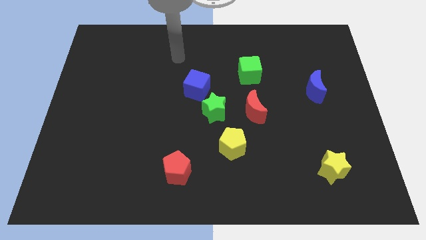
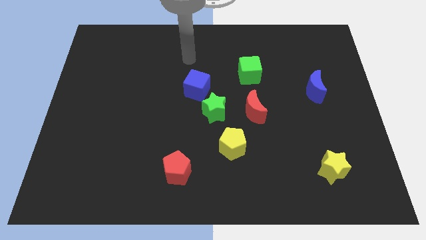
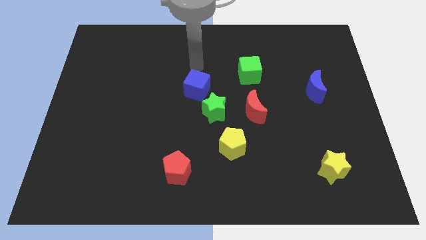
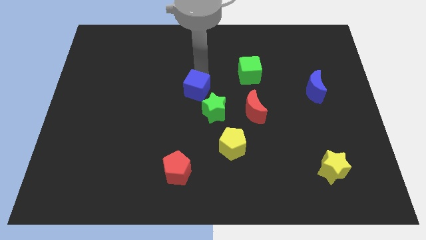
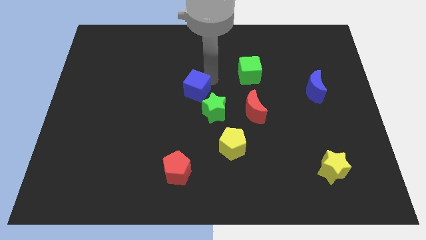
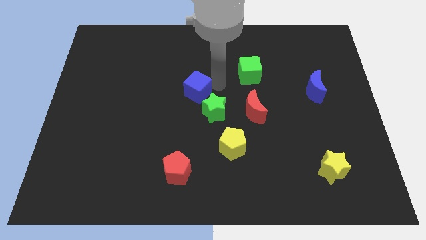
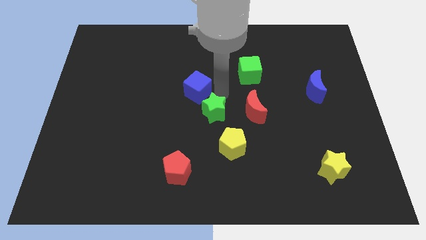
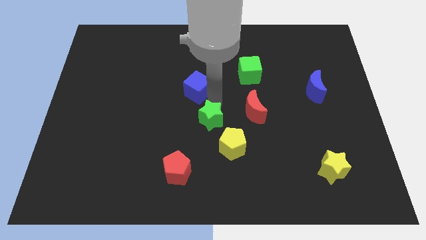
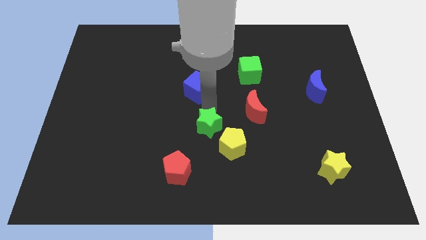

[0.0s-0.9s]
move the blue cube away from the green star

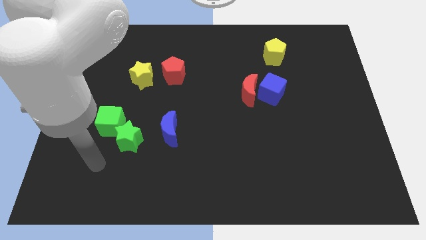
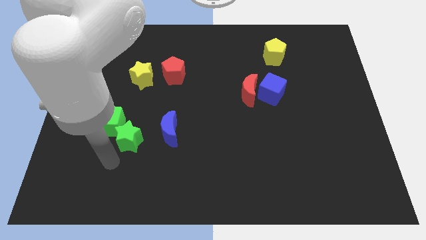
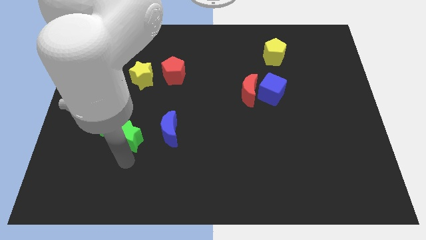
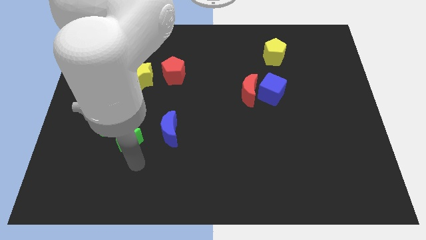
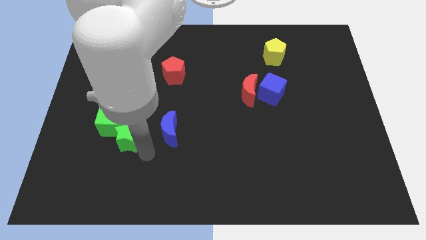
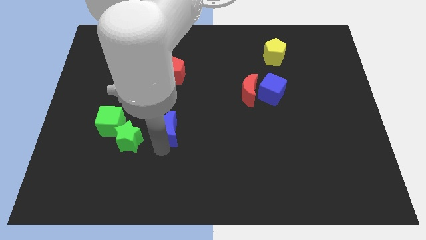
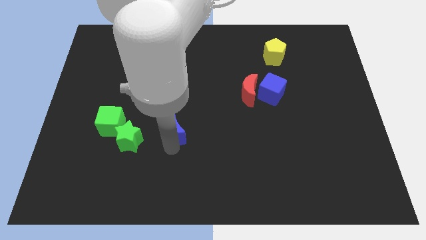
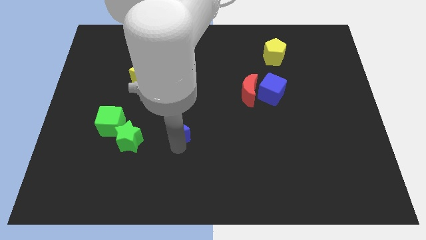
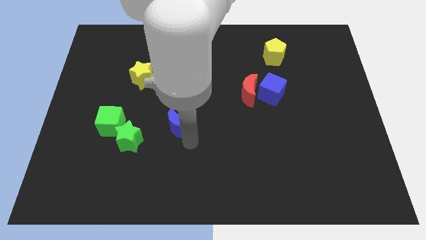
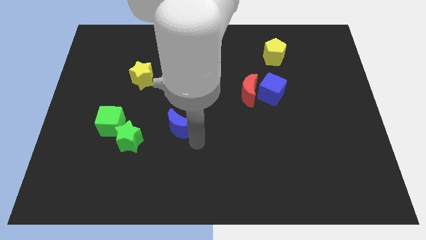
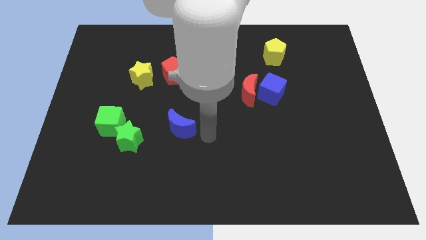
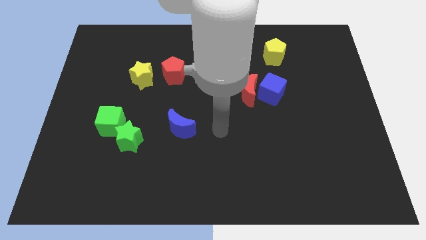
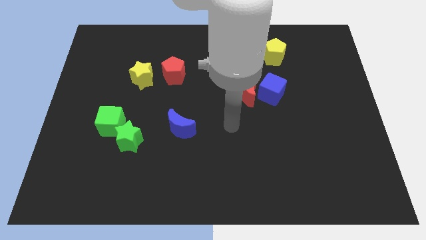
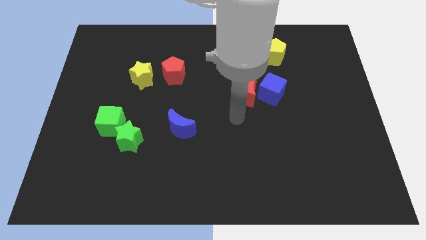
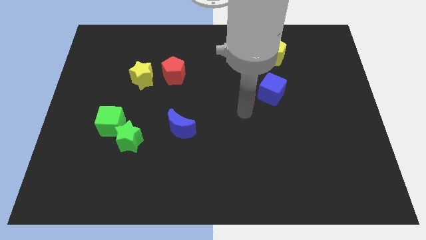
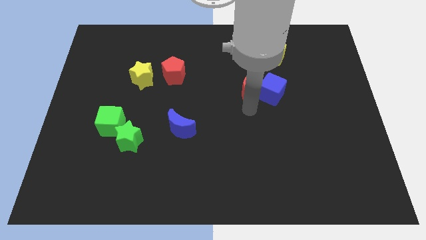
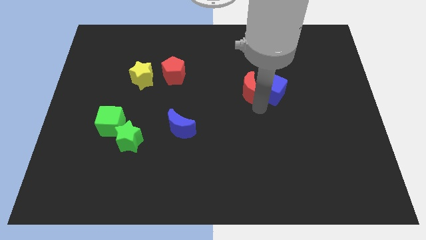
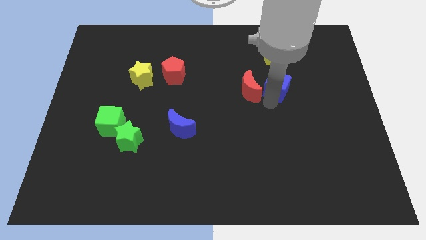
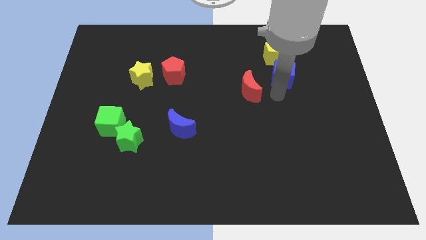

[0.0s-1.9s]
move the red moon away from the blue cube

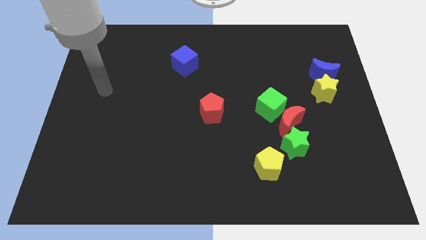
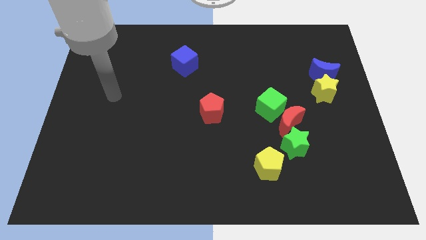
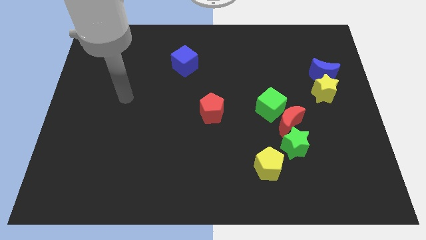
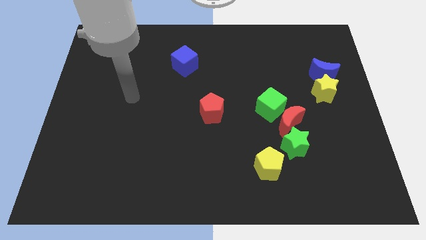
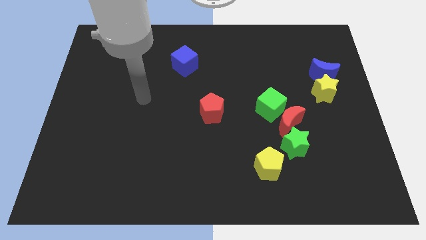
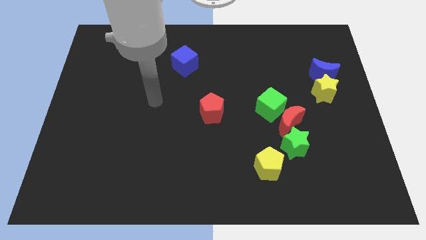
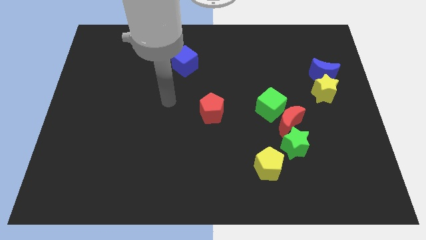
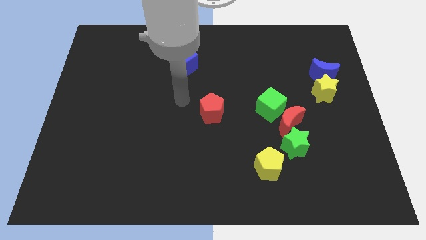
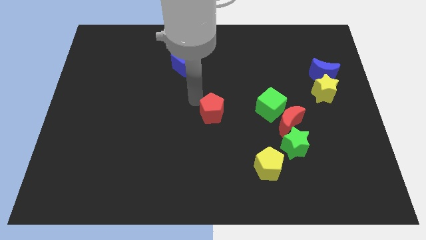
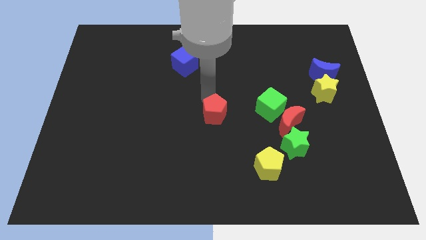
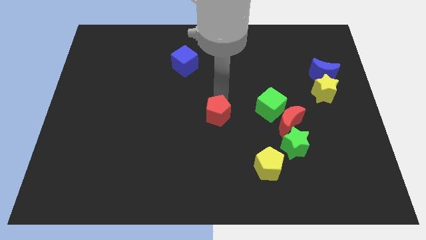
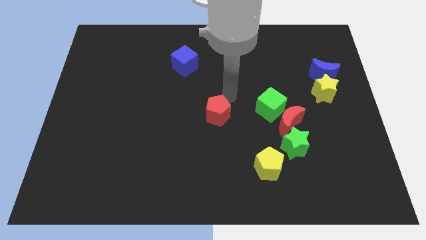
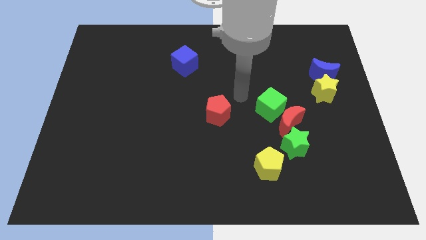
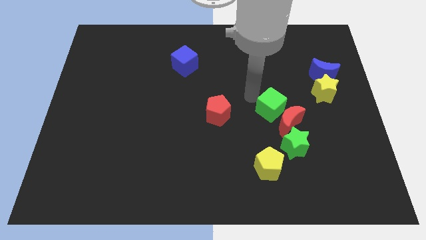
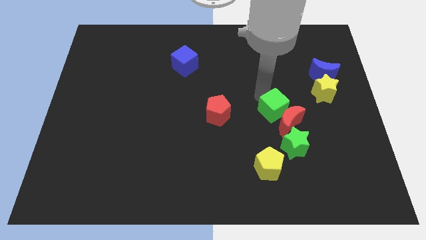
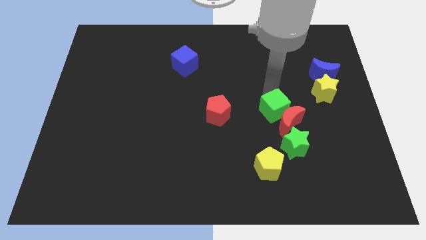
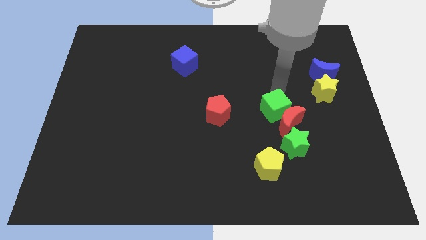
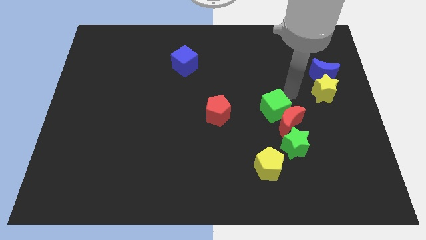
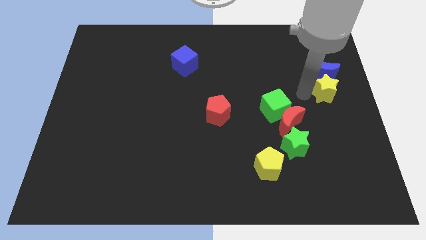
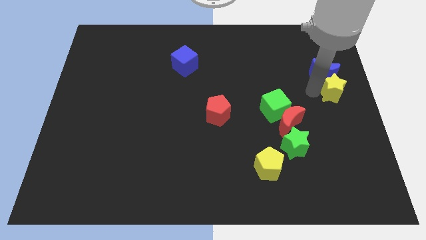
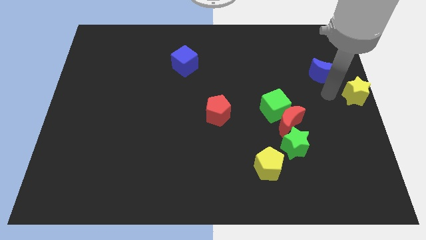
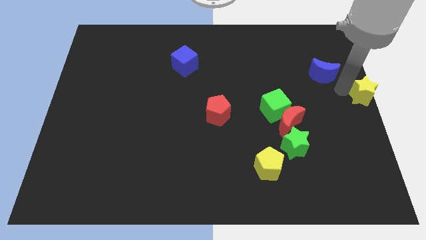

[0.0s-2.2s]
separate the blue moon from the yellow star

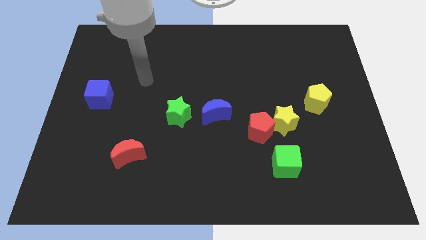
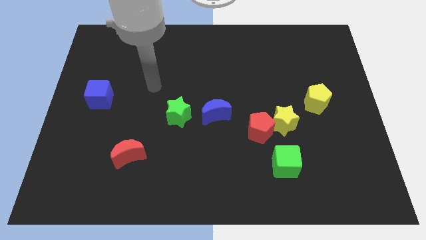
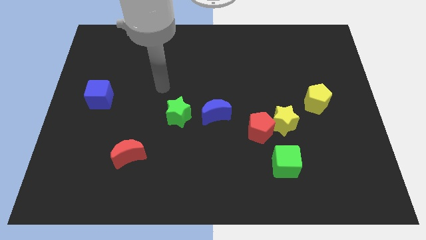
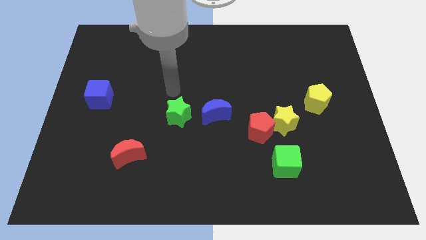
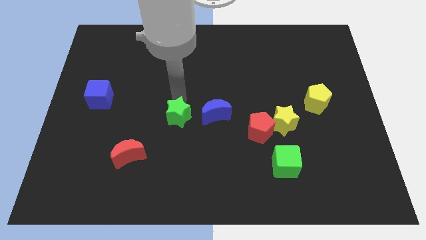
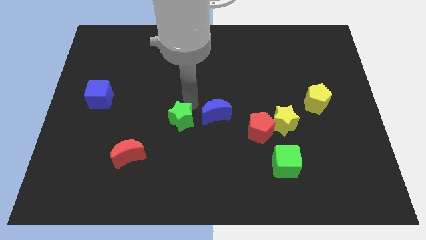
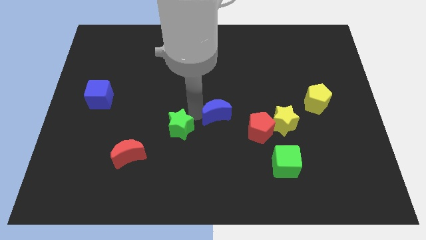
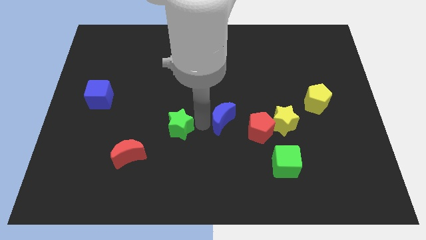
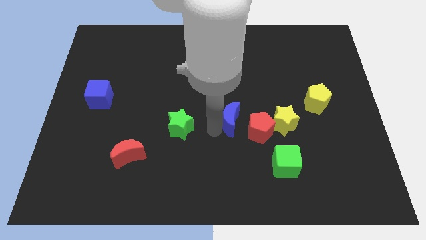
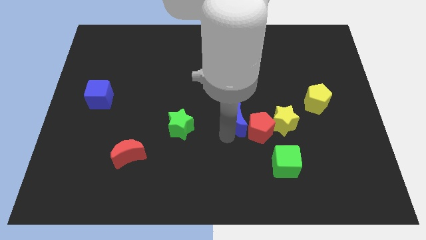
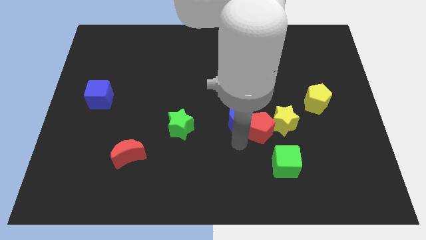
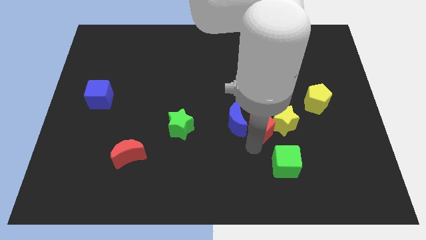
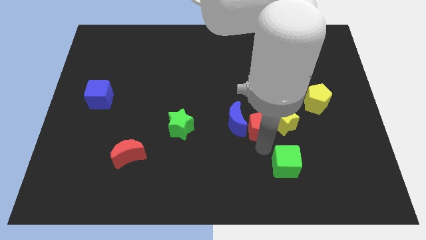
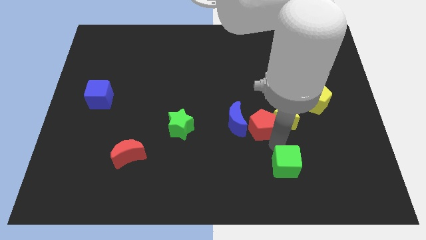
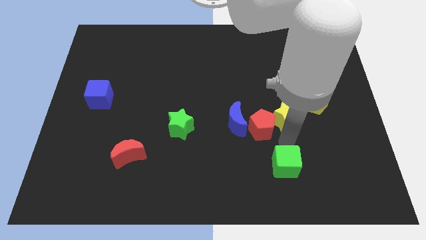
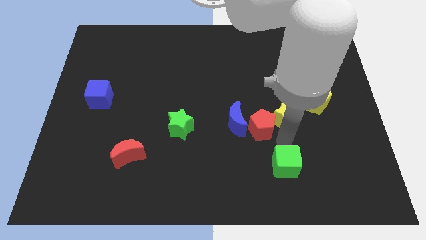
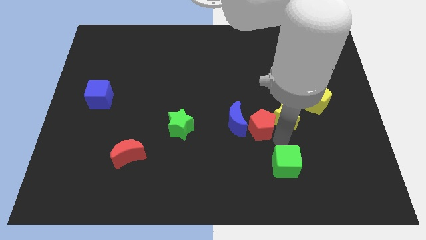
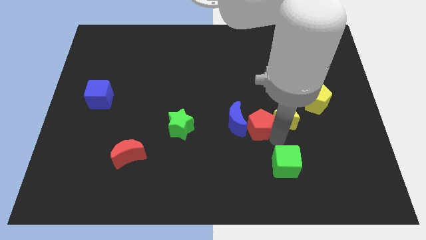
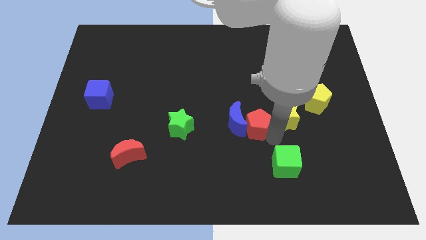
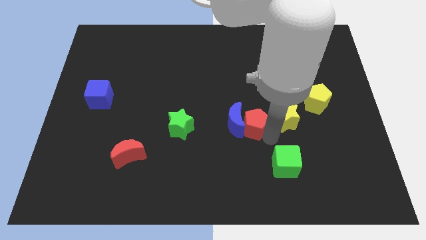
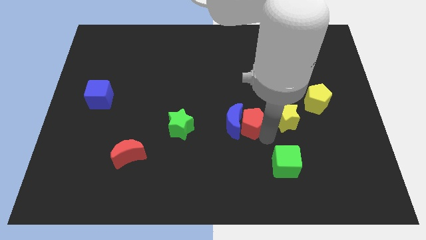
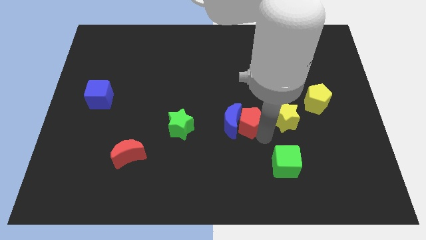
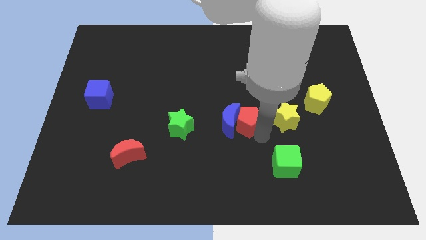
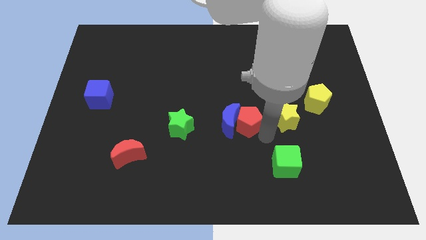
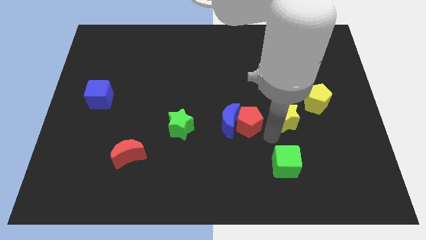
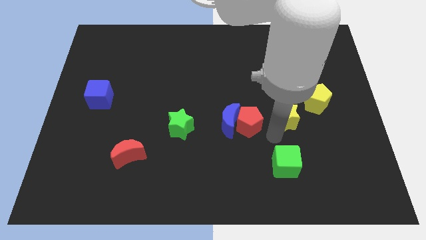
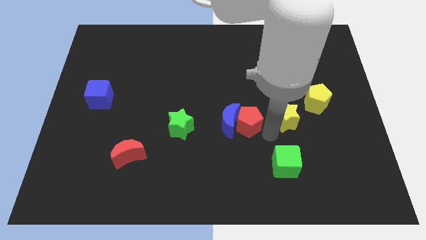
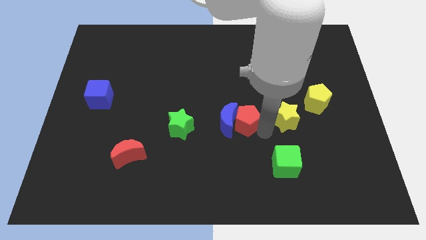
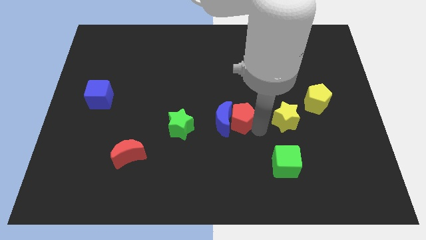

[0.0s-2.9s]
move the red pentagon away from the yellow star and green cube

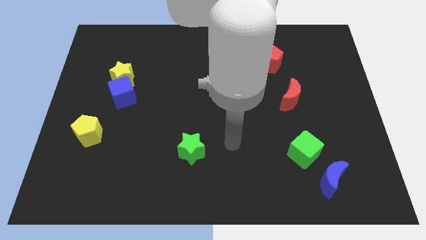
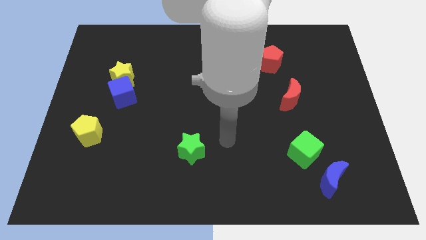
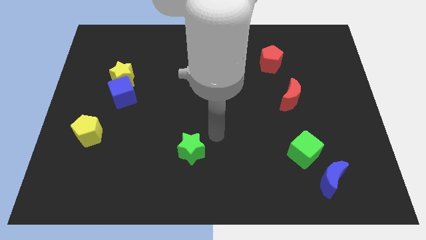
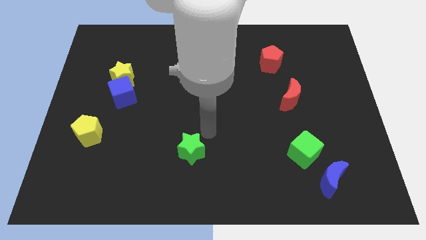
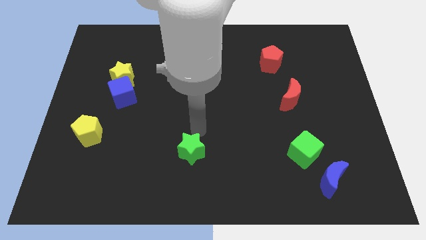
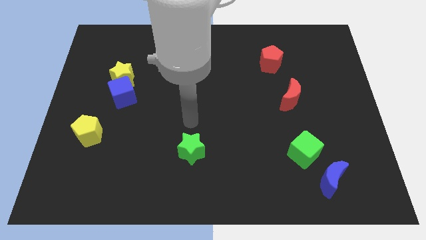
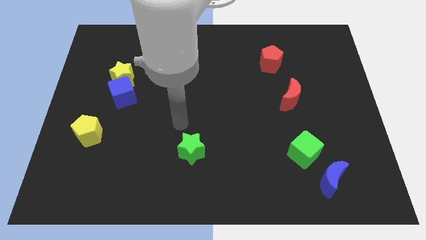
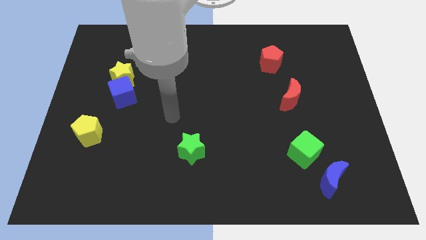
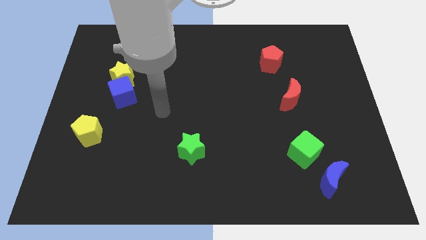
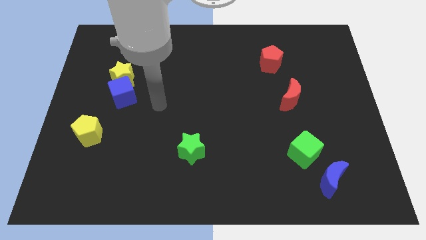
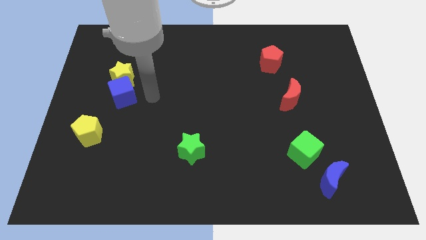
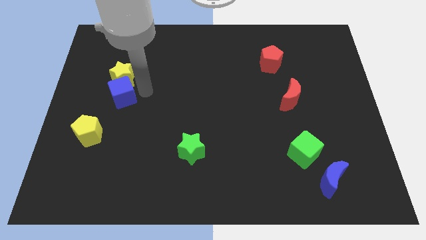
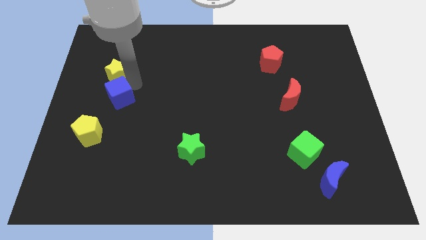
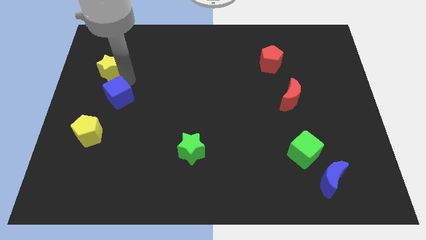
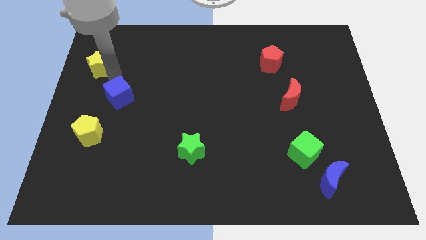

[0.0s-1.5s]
pull the blue cube apart from the yellow star
